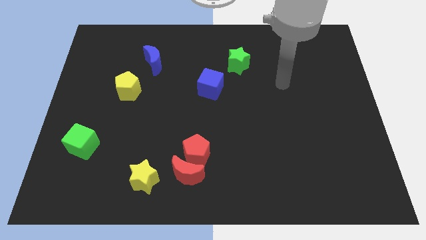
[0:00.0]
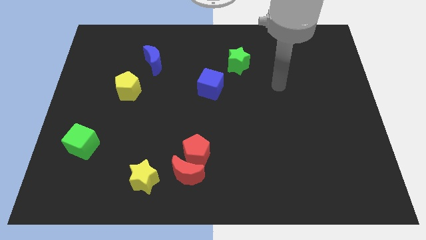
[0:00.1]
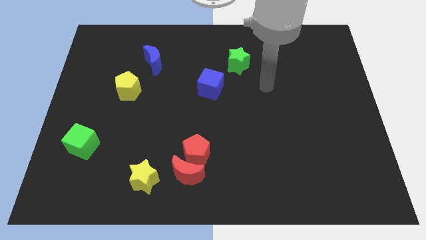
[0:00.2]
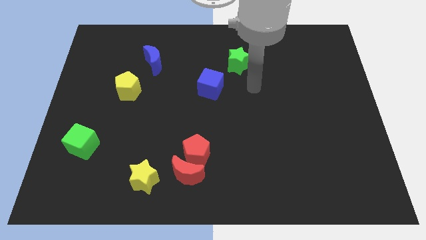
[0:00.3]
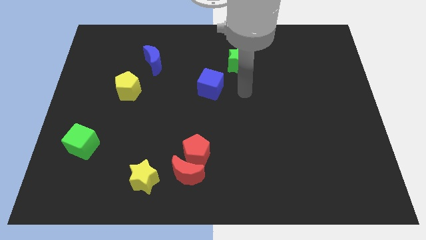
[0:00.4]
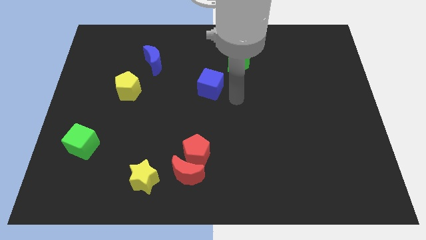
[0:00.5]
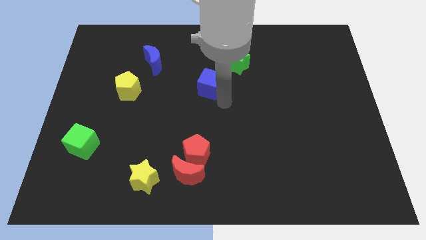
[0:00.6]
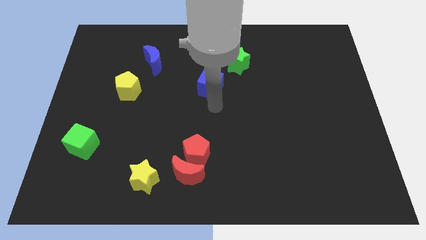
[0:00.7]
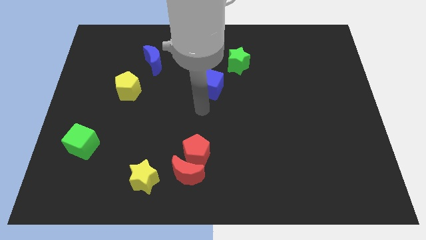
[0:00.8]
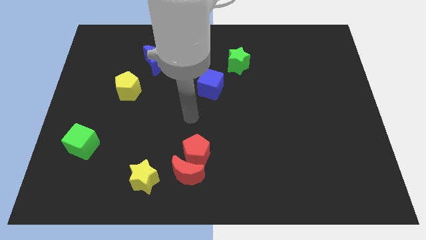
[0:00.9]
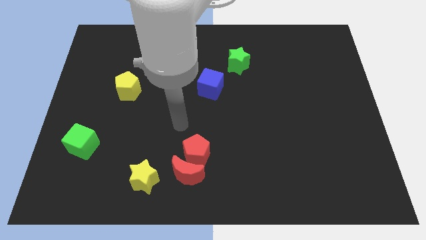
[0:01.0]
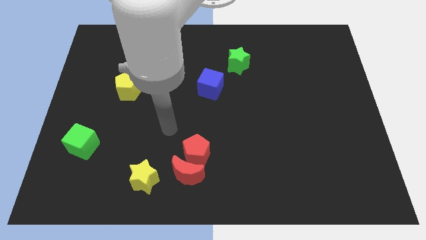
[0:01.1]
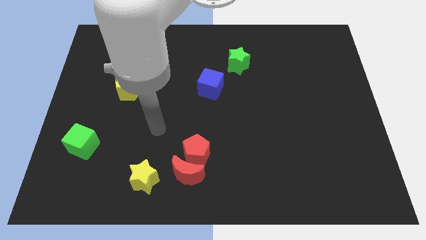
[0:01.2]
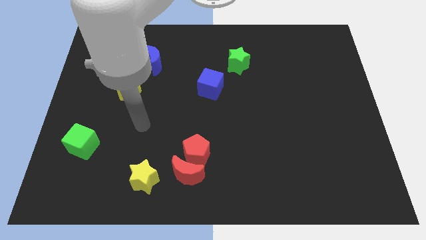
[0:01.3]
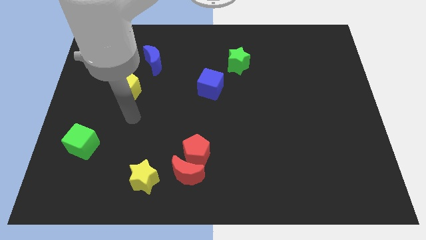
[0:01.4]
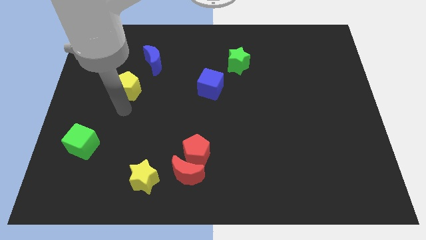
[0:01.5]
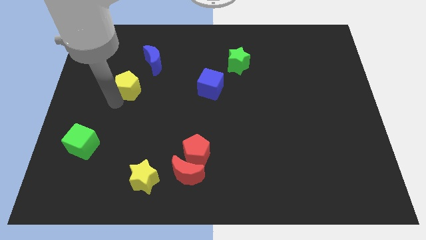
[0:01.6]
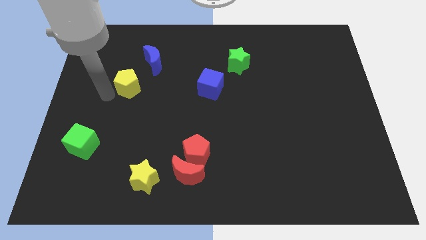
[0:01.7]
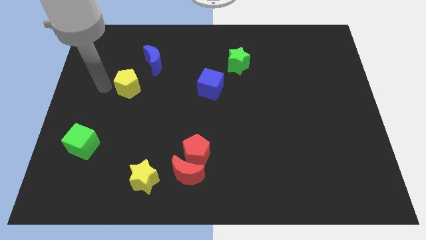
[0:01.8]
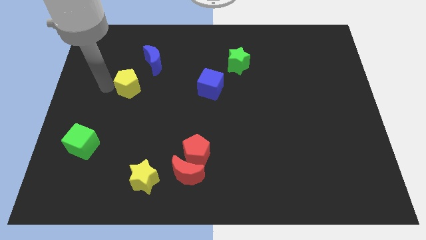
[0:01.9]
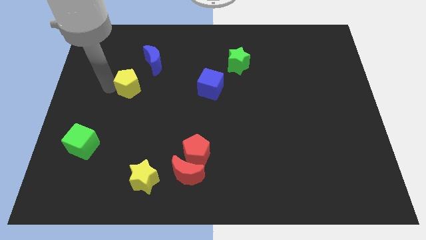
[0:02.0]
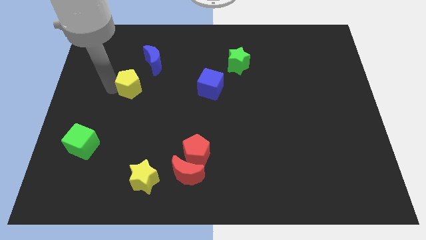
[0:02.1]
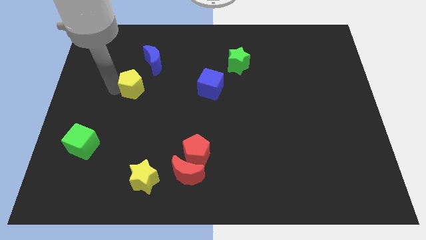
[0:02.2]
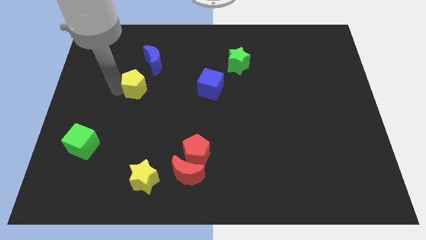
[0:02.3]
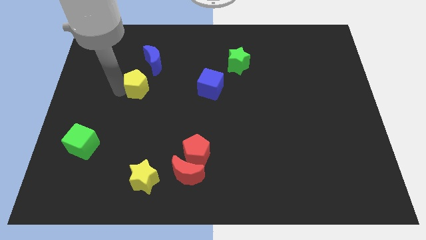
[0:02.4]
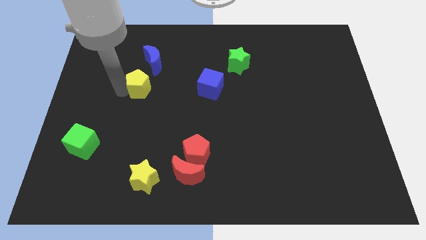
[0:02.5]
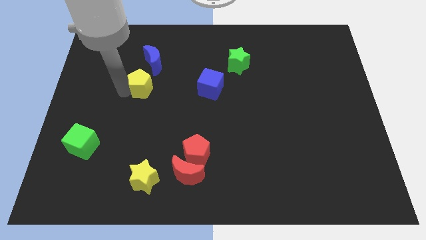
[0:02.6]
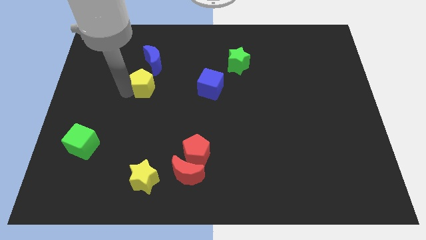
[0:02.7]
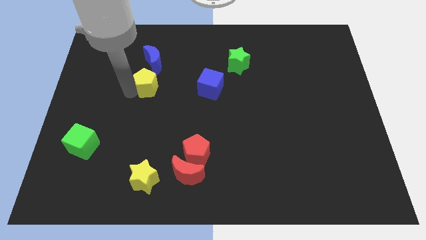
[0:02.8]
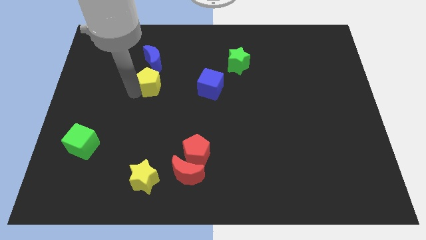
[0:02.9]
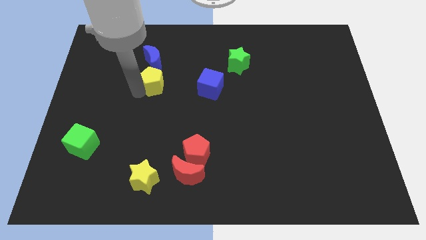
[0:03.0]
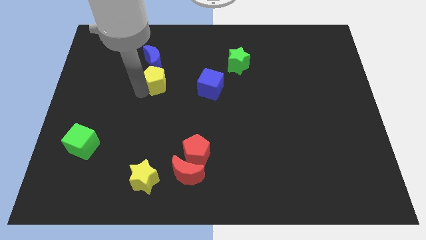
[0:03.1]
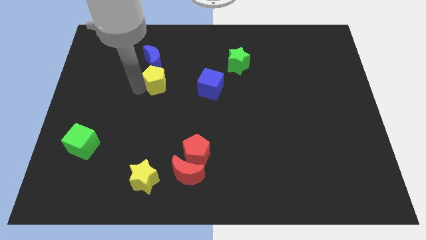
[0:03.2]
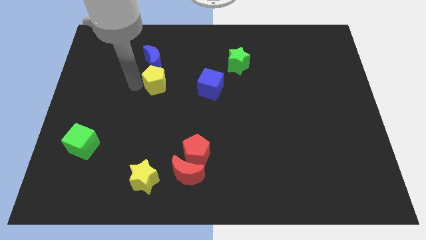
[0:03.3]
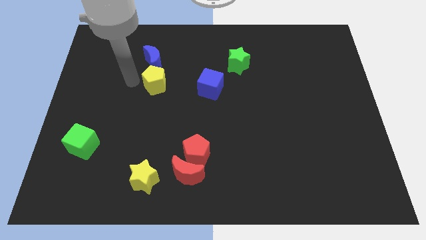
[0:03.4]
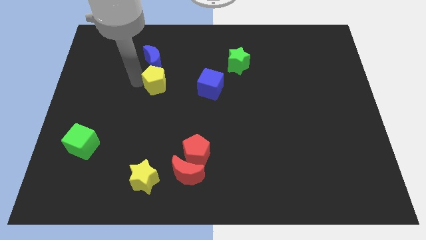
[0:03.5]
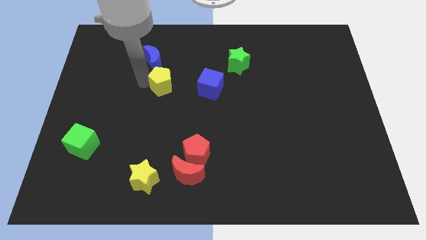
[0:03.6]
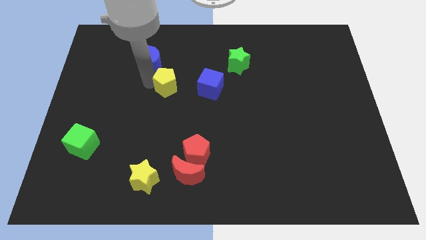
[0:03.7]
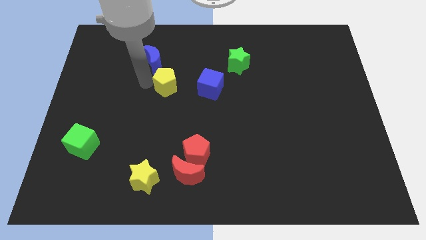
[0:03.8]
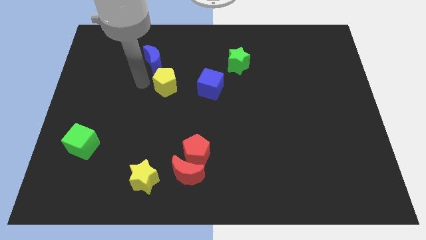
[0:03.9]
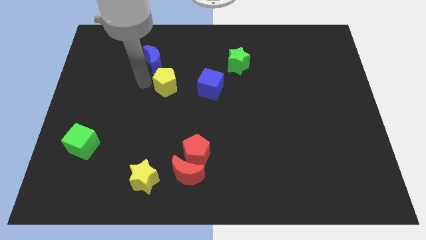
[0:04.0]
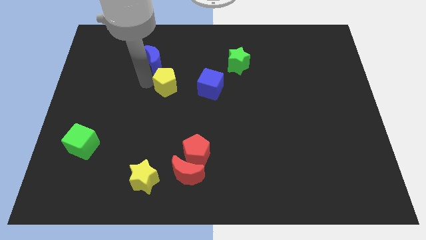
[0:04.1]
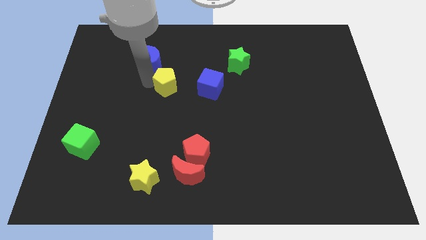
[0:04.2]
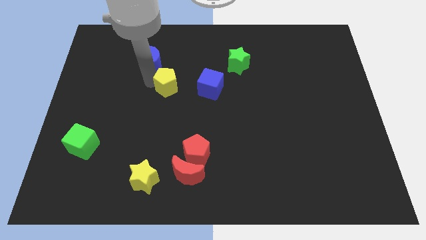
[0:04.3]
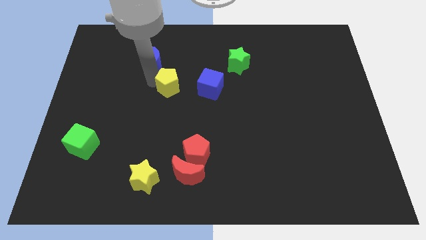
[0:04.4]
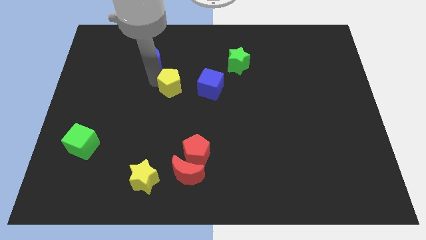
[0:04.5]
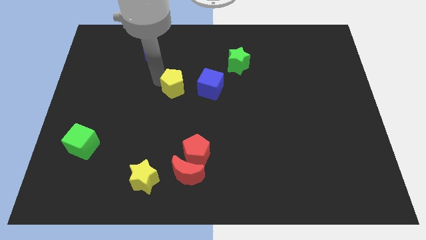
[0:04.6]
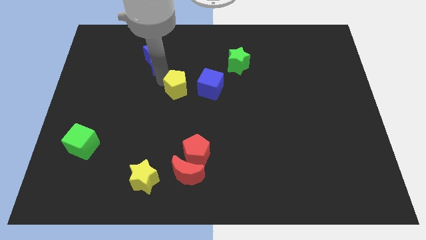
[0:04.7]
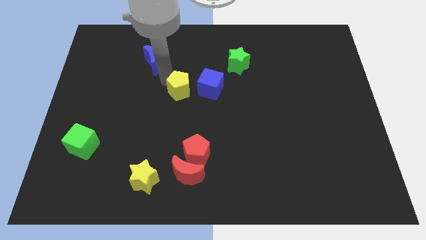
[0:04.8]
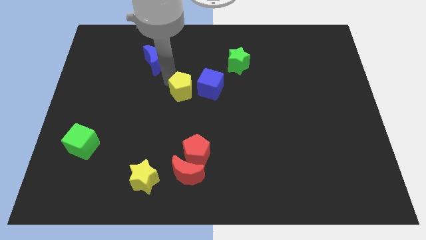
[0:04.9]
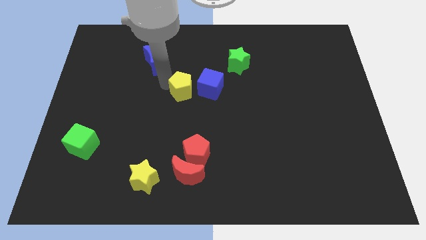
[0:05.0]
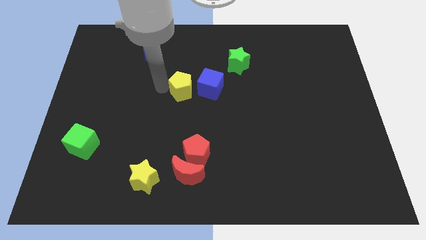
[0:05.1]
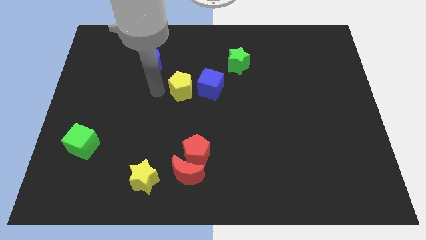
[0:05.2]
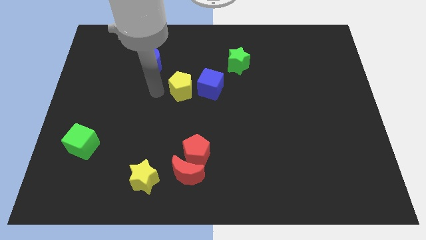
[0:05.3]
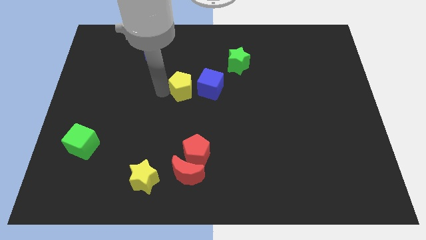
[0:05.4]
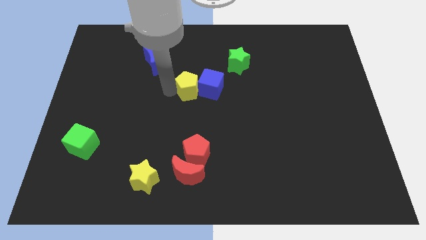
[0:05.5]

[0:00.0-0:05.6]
move the yellow pentagon close to the blue cube
